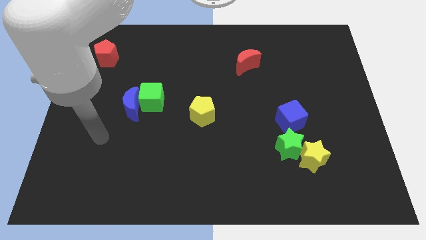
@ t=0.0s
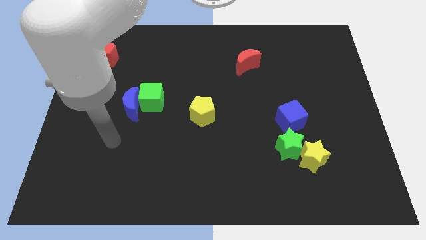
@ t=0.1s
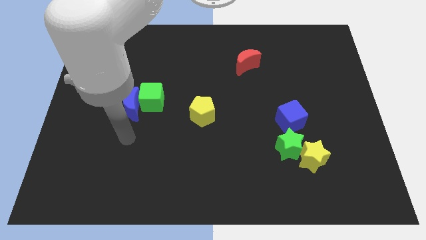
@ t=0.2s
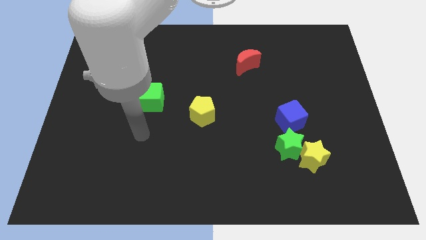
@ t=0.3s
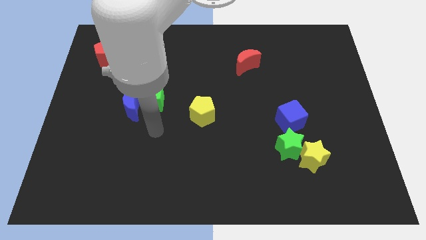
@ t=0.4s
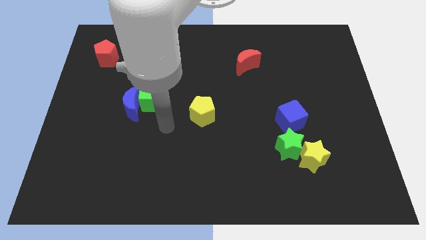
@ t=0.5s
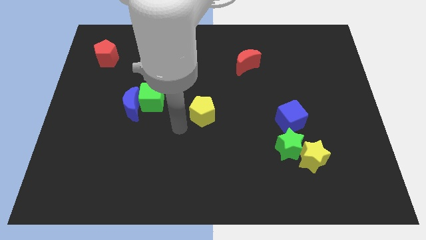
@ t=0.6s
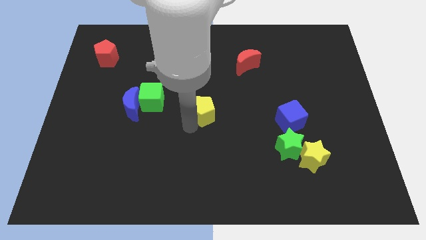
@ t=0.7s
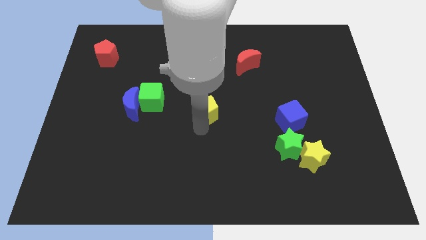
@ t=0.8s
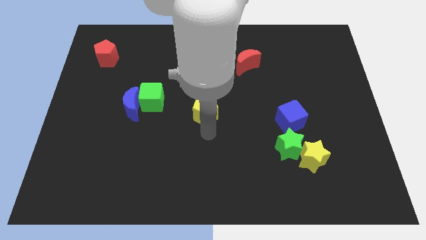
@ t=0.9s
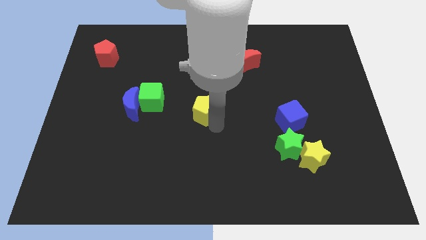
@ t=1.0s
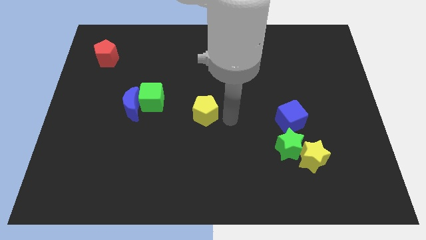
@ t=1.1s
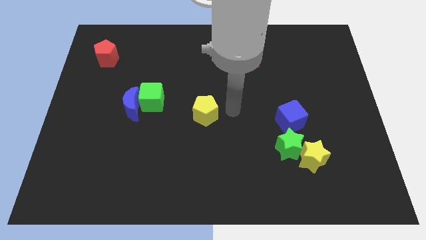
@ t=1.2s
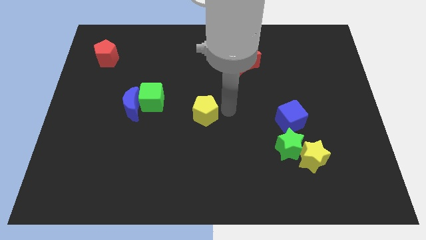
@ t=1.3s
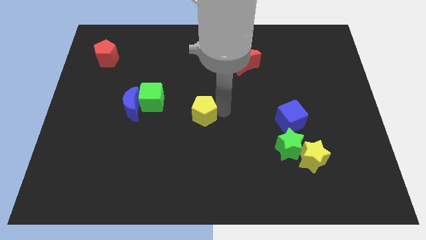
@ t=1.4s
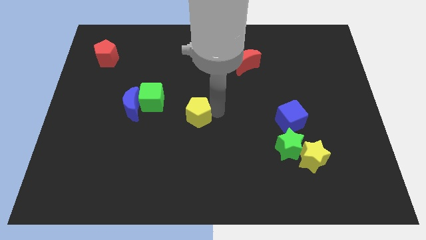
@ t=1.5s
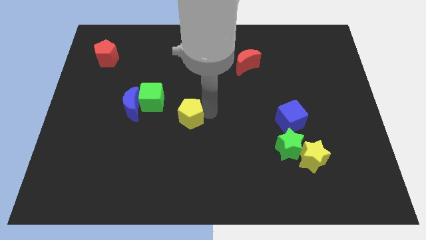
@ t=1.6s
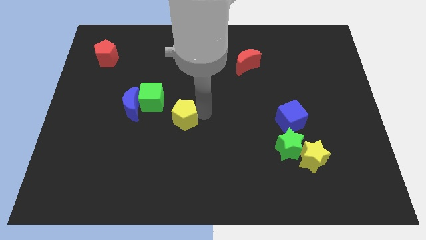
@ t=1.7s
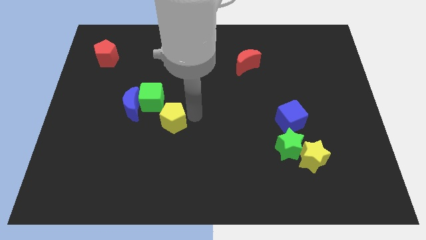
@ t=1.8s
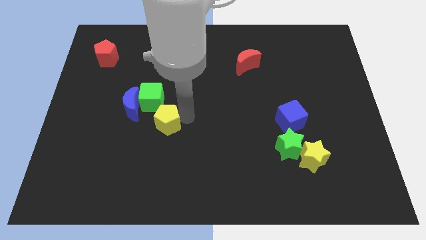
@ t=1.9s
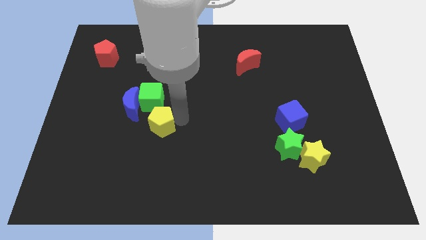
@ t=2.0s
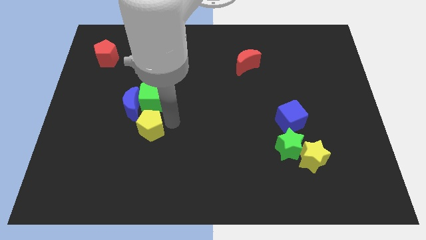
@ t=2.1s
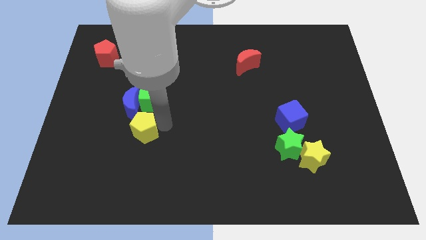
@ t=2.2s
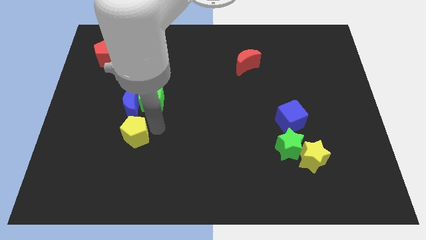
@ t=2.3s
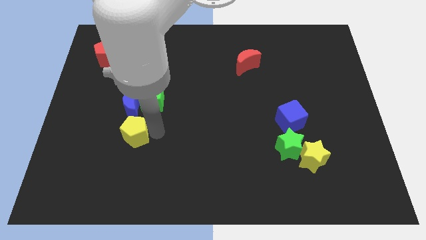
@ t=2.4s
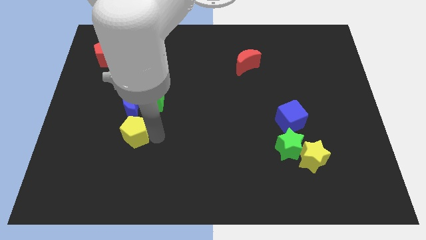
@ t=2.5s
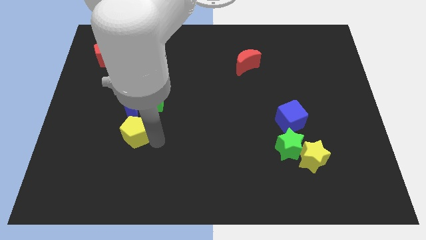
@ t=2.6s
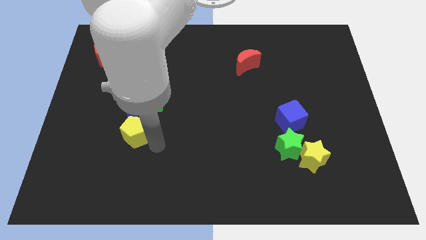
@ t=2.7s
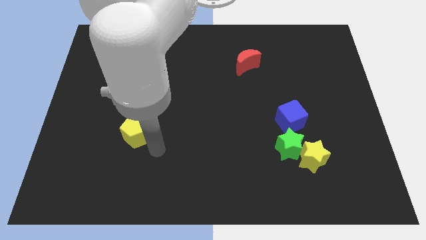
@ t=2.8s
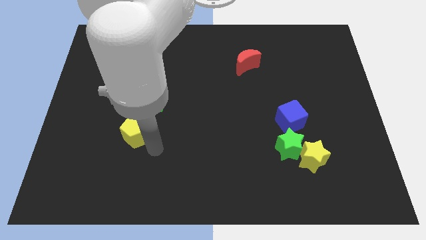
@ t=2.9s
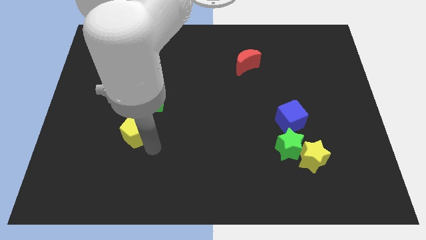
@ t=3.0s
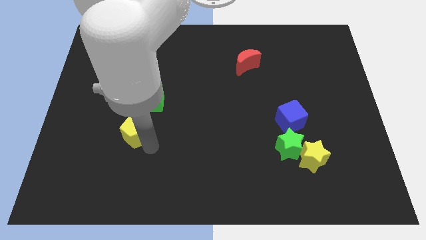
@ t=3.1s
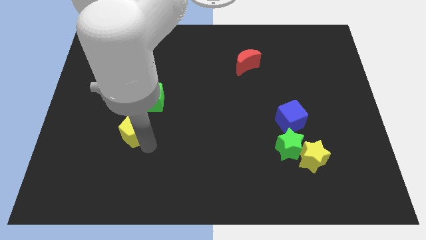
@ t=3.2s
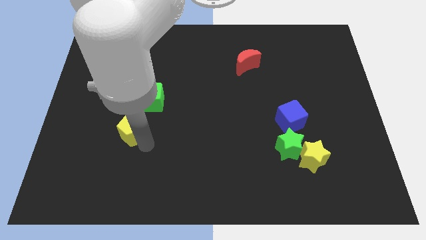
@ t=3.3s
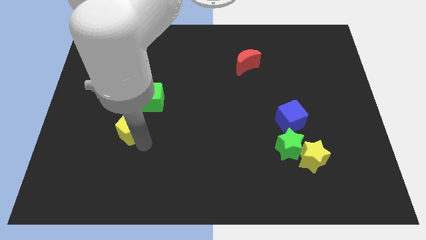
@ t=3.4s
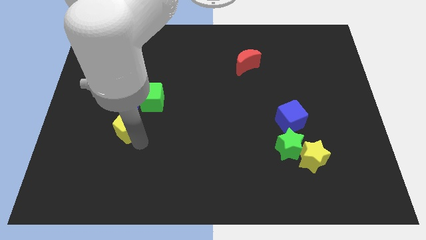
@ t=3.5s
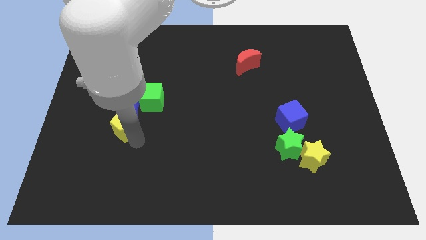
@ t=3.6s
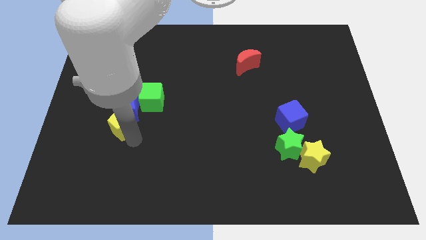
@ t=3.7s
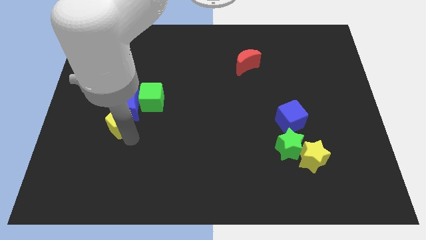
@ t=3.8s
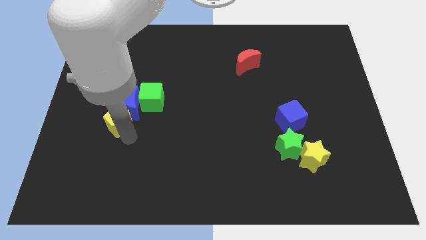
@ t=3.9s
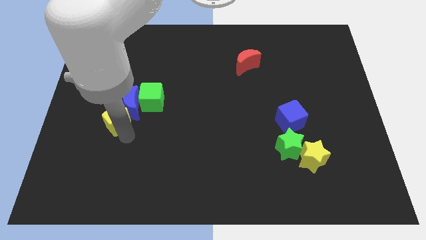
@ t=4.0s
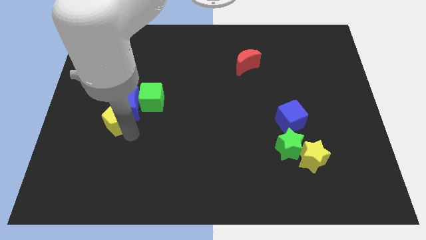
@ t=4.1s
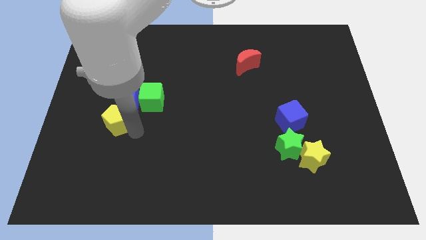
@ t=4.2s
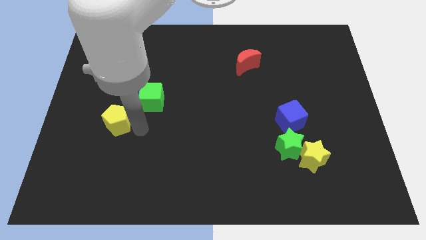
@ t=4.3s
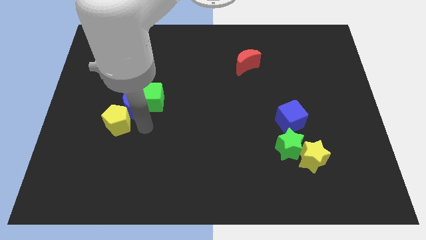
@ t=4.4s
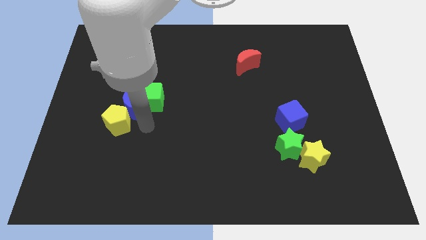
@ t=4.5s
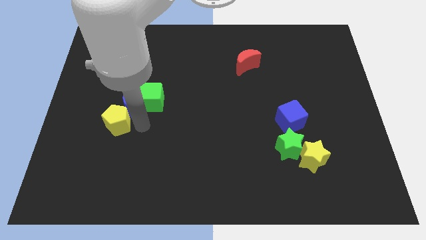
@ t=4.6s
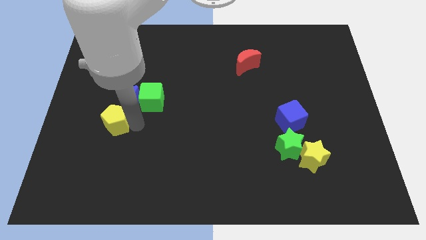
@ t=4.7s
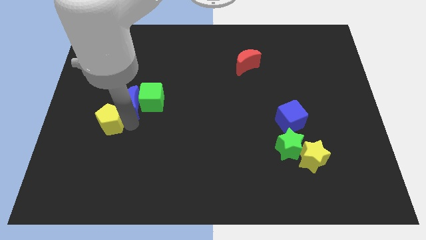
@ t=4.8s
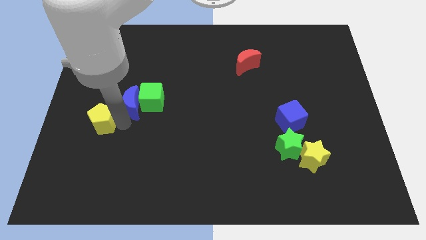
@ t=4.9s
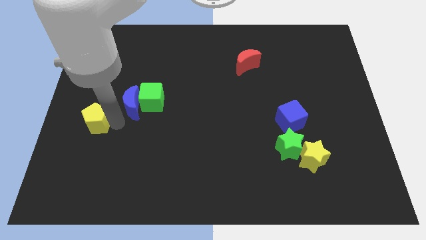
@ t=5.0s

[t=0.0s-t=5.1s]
push the yellow pentagon to the center left
